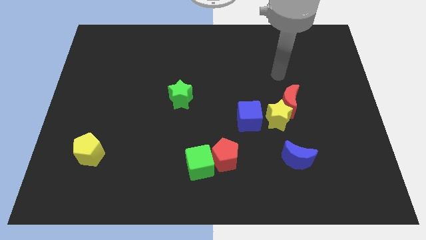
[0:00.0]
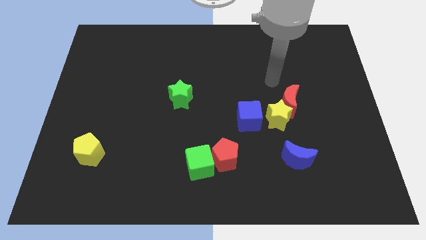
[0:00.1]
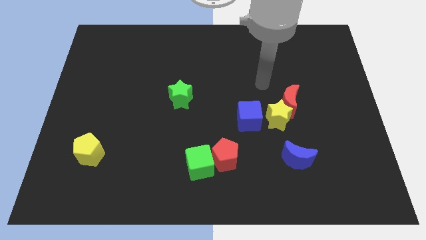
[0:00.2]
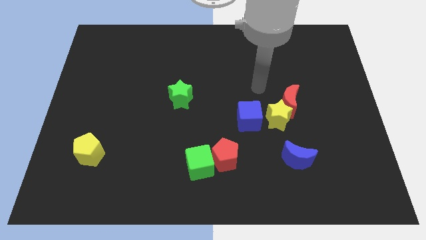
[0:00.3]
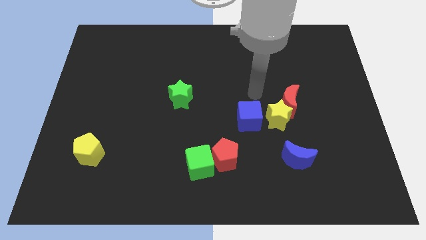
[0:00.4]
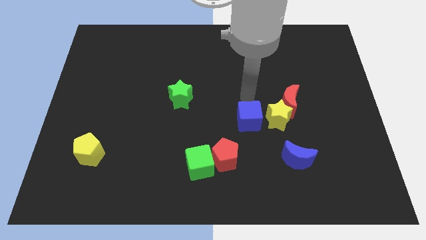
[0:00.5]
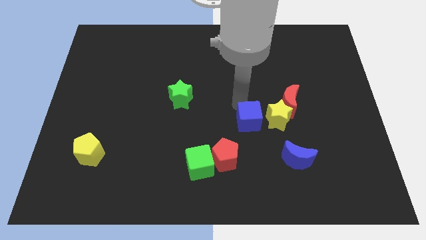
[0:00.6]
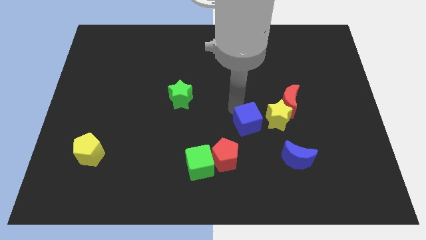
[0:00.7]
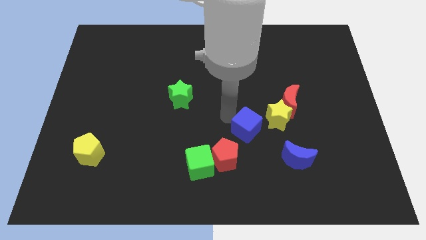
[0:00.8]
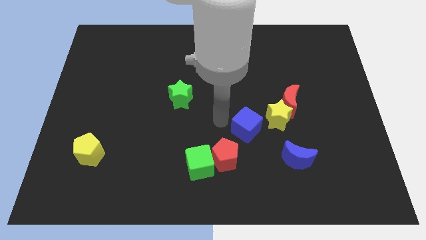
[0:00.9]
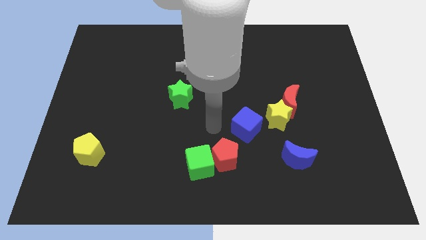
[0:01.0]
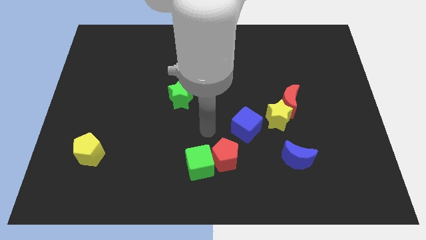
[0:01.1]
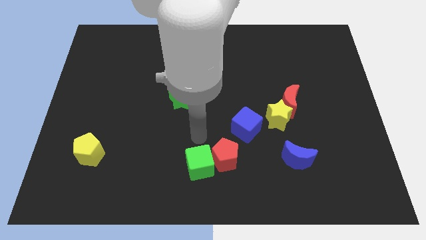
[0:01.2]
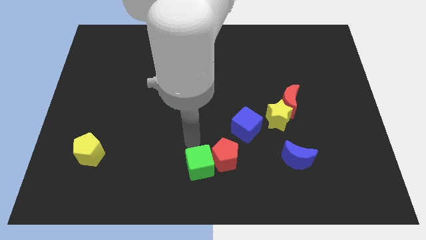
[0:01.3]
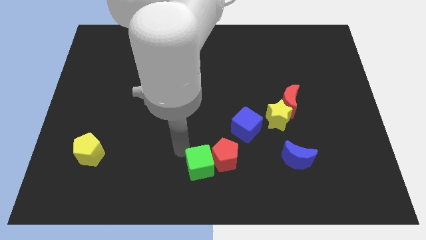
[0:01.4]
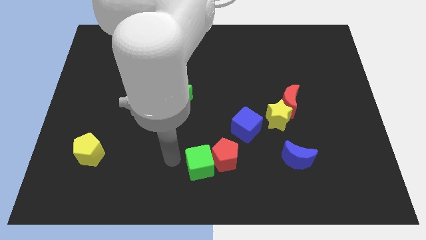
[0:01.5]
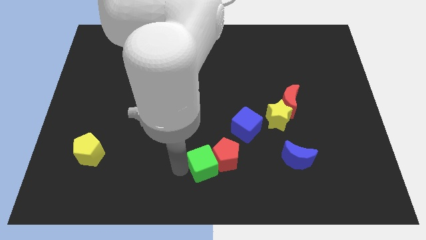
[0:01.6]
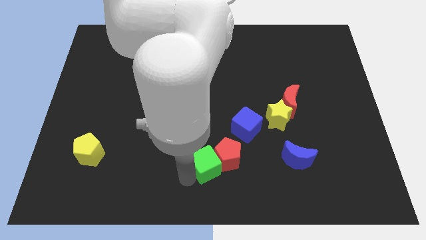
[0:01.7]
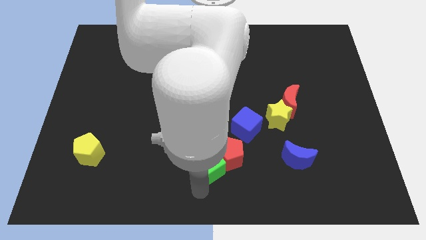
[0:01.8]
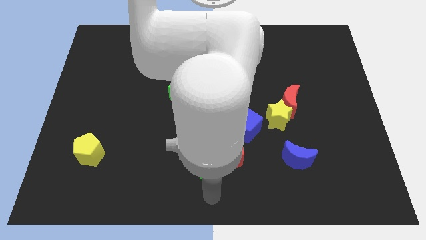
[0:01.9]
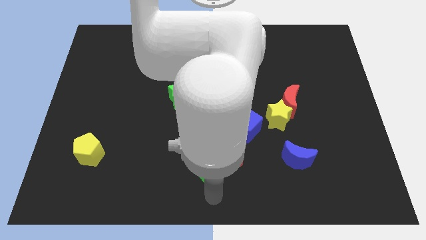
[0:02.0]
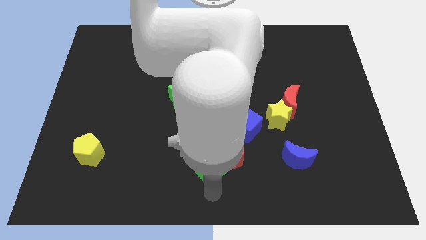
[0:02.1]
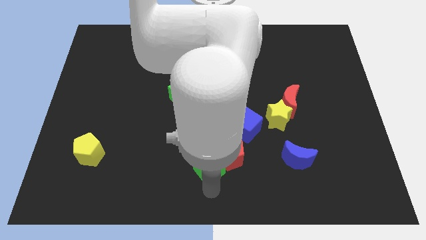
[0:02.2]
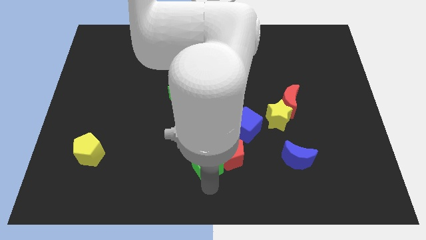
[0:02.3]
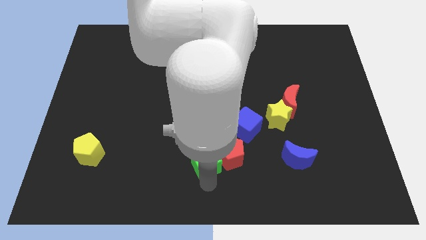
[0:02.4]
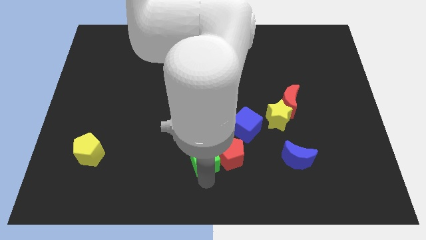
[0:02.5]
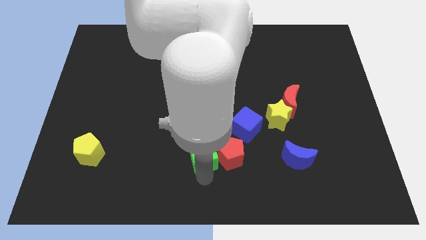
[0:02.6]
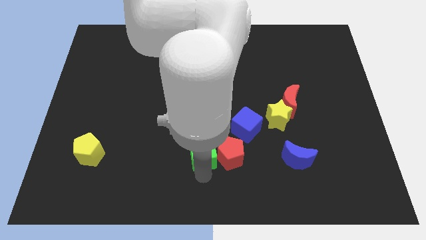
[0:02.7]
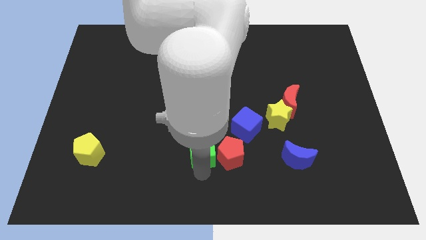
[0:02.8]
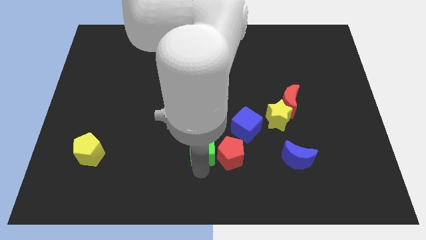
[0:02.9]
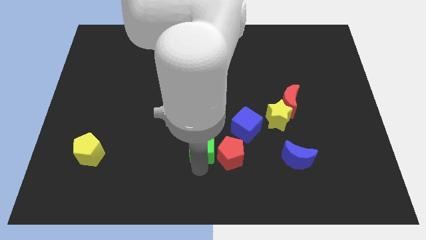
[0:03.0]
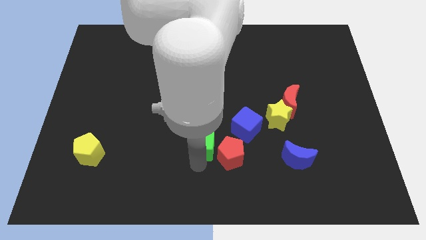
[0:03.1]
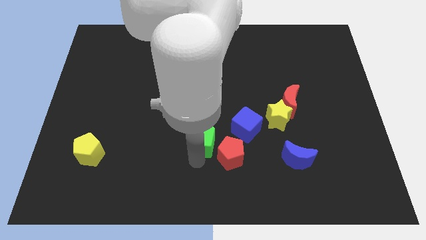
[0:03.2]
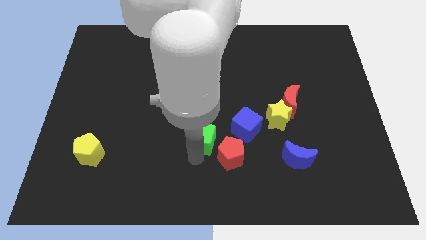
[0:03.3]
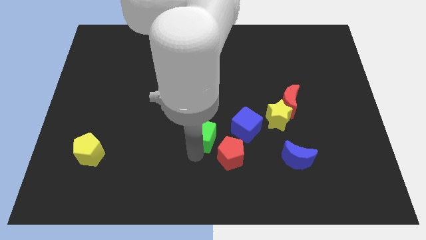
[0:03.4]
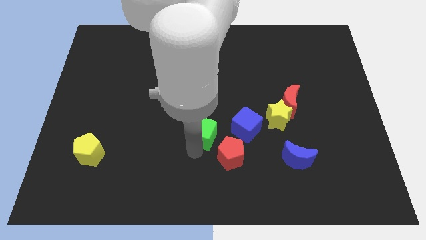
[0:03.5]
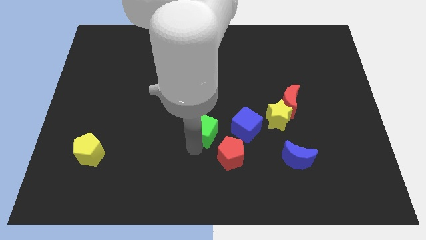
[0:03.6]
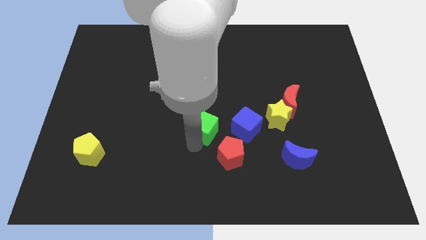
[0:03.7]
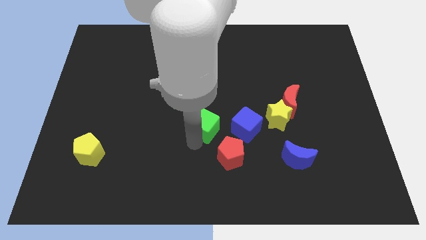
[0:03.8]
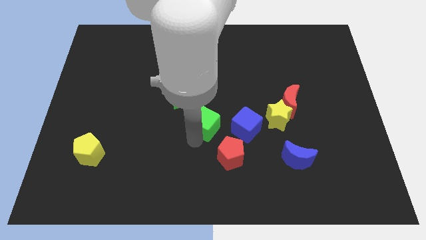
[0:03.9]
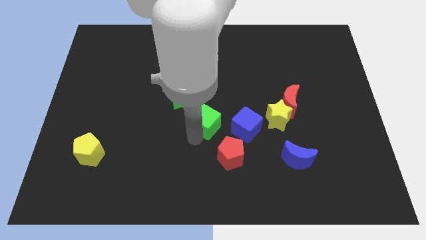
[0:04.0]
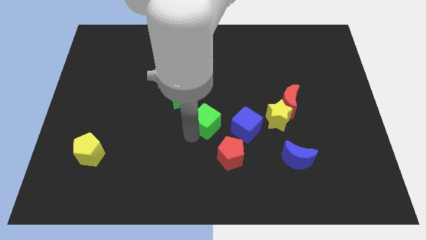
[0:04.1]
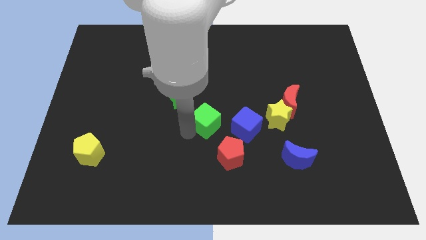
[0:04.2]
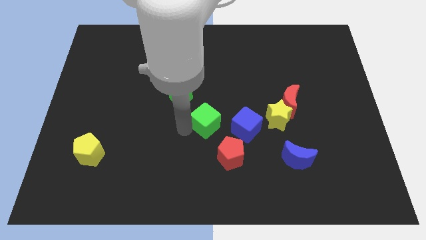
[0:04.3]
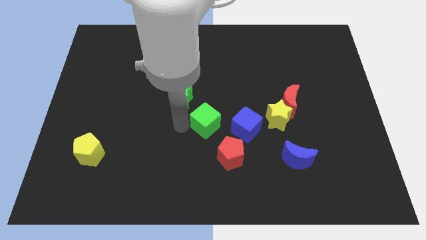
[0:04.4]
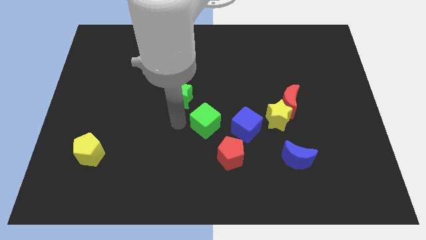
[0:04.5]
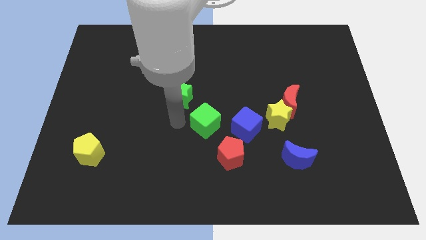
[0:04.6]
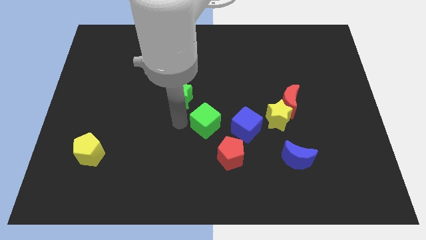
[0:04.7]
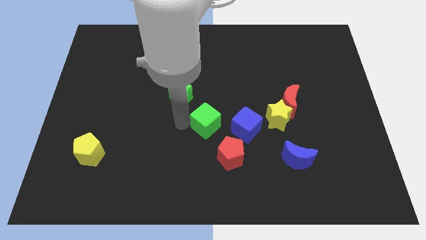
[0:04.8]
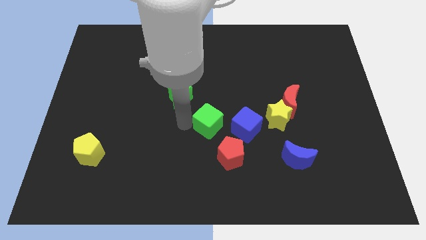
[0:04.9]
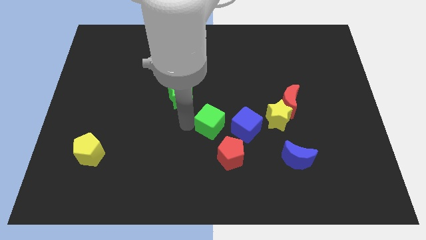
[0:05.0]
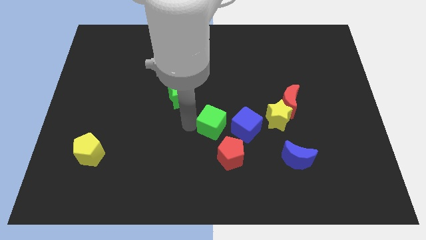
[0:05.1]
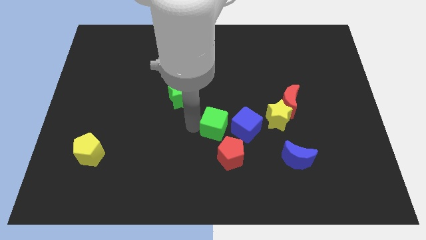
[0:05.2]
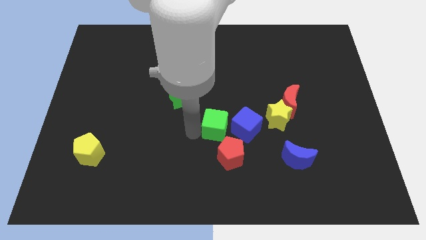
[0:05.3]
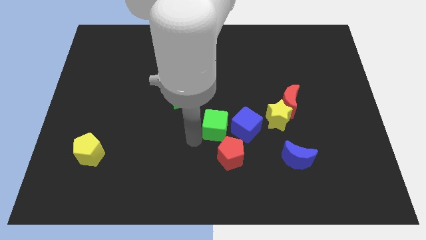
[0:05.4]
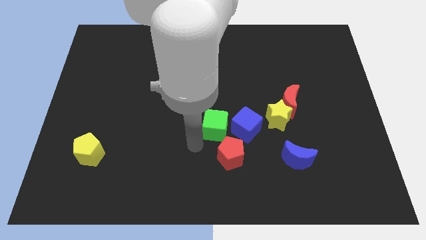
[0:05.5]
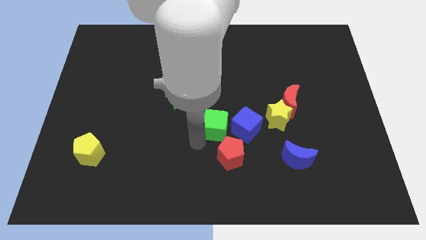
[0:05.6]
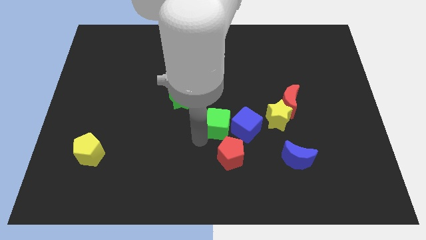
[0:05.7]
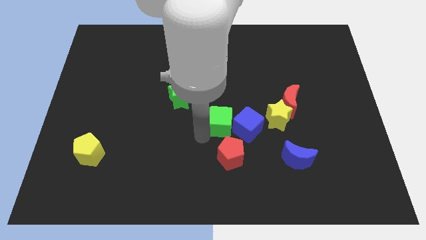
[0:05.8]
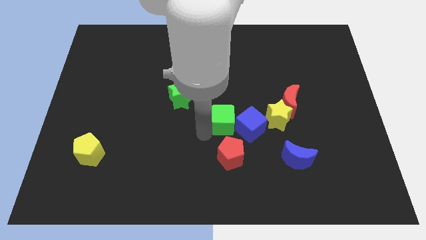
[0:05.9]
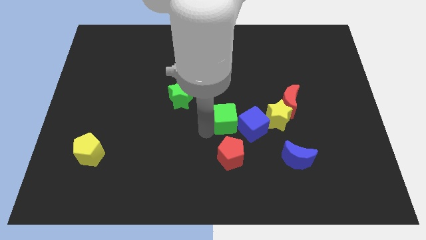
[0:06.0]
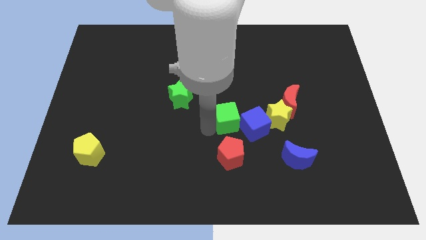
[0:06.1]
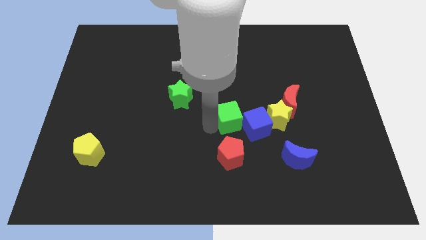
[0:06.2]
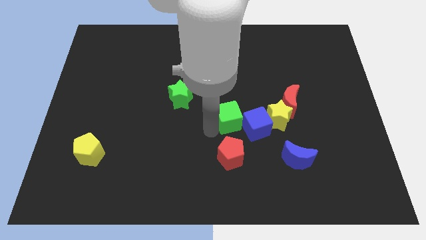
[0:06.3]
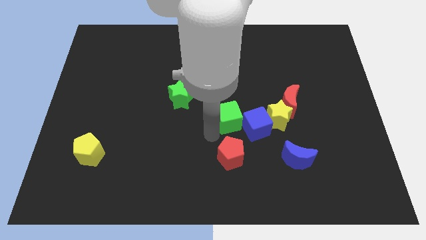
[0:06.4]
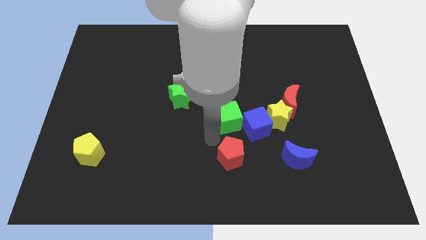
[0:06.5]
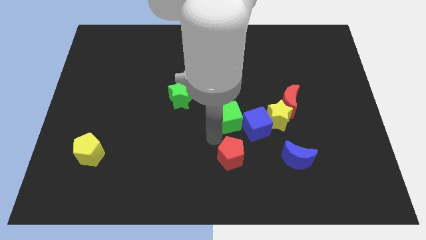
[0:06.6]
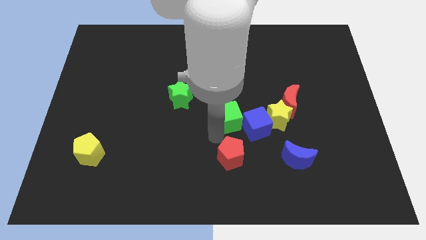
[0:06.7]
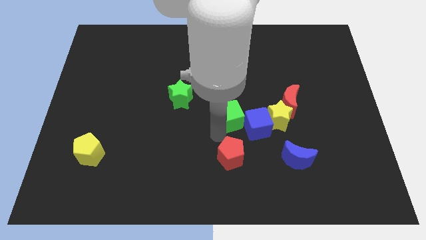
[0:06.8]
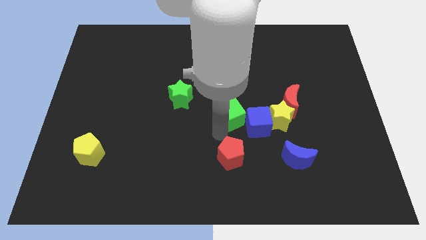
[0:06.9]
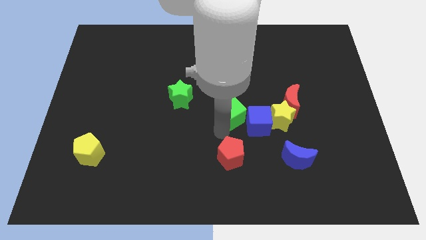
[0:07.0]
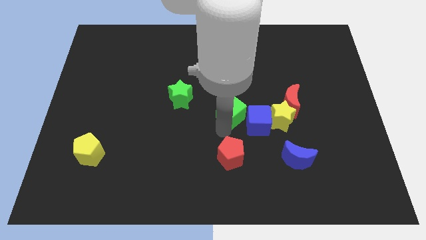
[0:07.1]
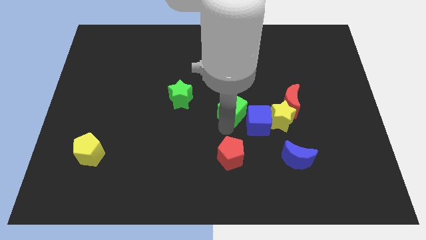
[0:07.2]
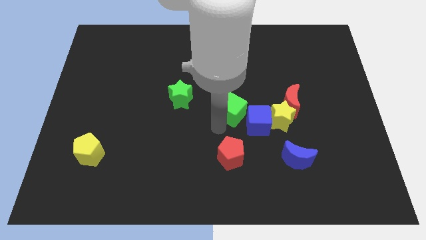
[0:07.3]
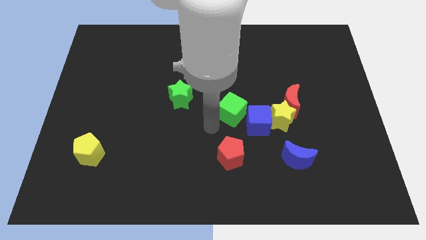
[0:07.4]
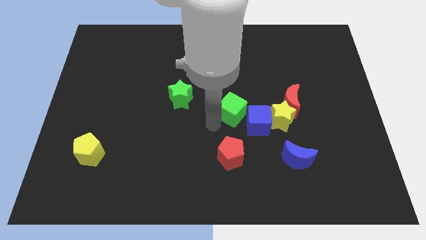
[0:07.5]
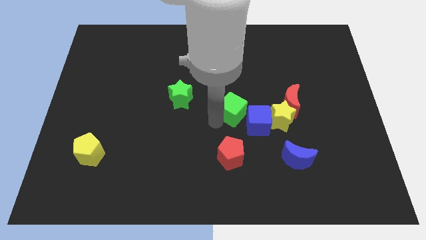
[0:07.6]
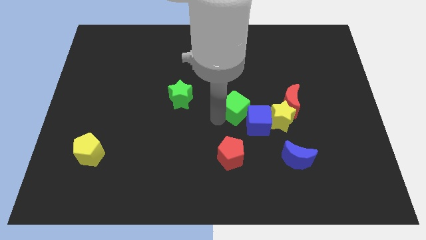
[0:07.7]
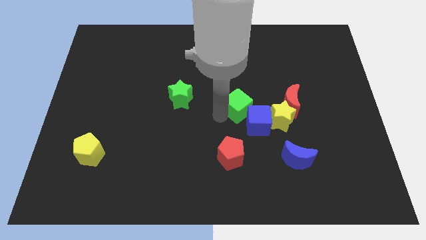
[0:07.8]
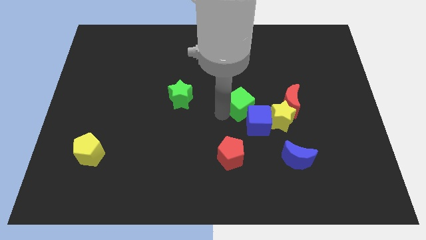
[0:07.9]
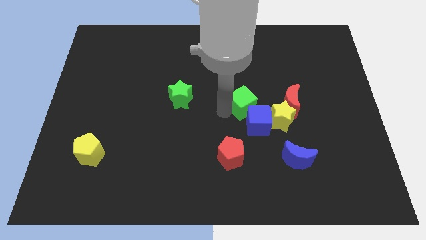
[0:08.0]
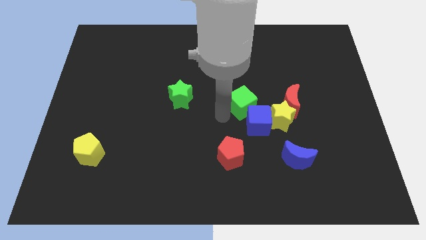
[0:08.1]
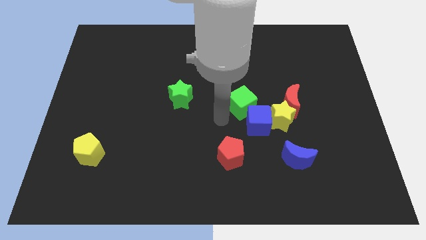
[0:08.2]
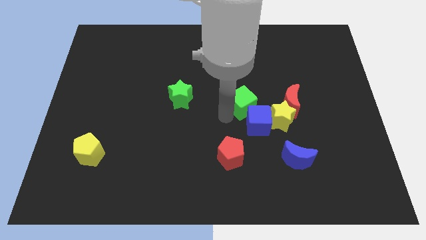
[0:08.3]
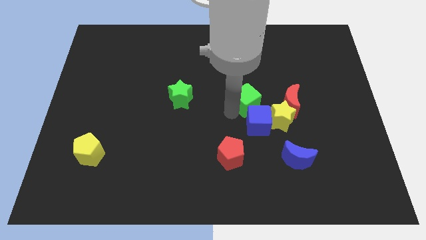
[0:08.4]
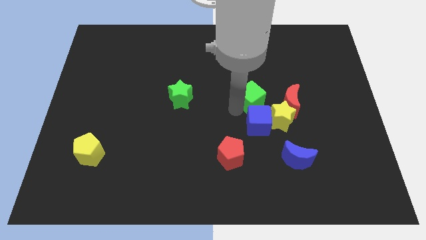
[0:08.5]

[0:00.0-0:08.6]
move the green cube up and to the right diagonally
